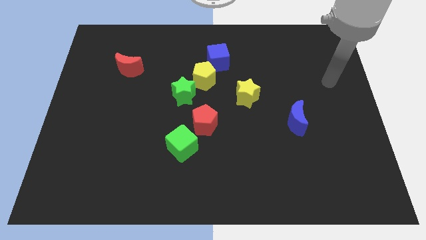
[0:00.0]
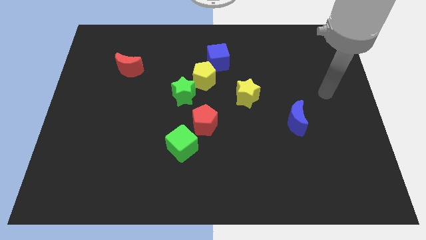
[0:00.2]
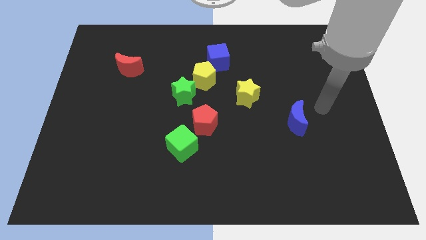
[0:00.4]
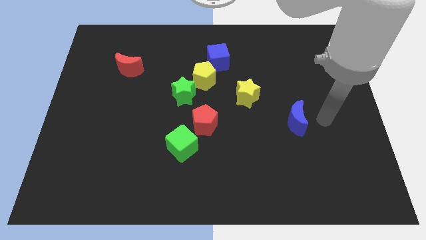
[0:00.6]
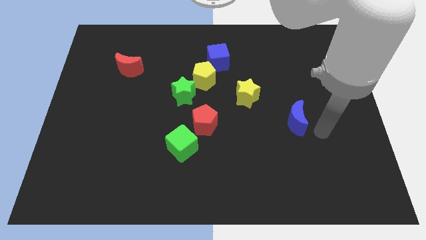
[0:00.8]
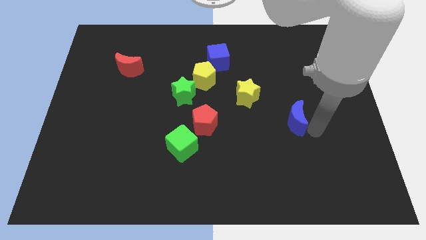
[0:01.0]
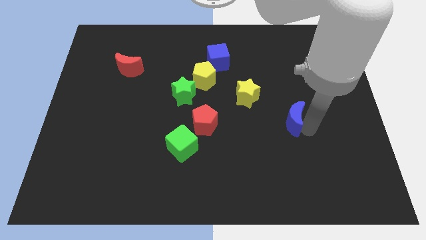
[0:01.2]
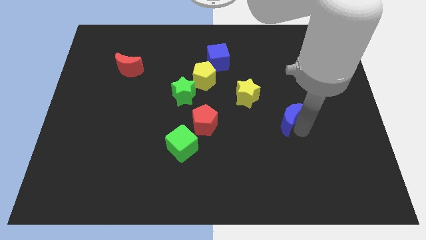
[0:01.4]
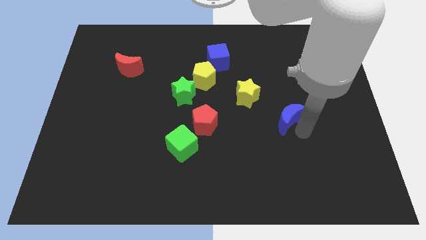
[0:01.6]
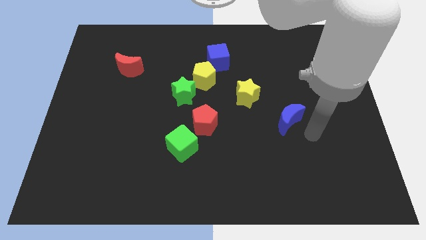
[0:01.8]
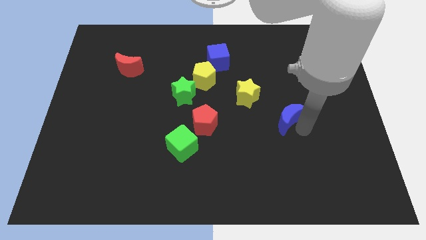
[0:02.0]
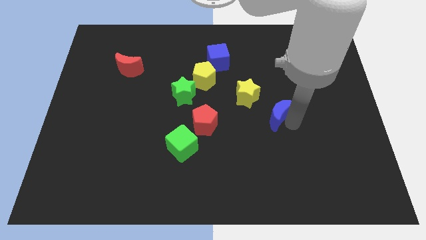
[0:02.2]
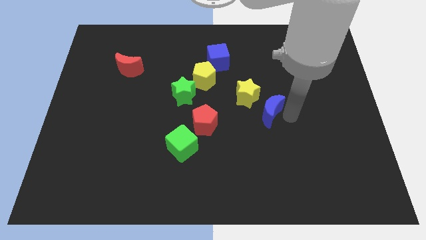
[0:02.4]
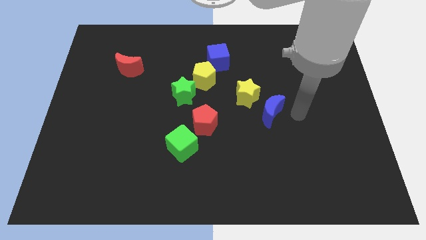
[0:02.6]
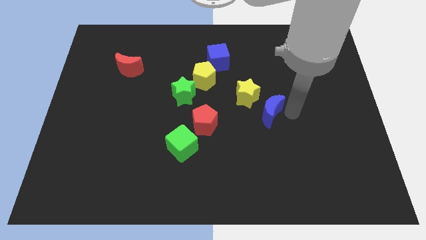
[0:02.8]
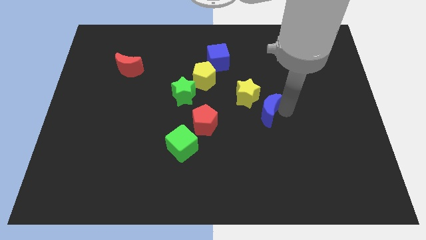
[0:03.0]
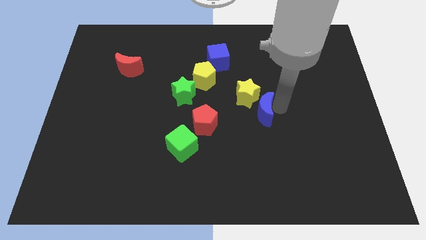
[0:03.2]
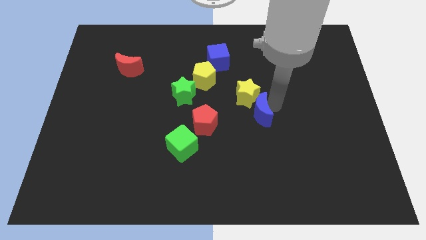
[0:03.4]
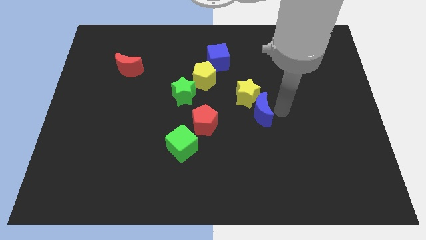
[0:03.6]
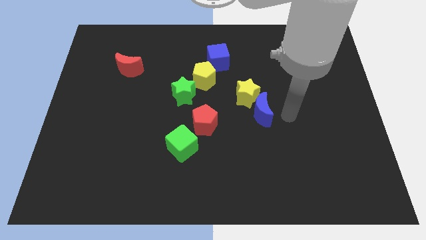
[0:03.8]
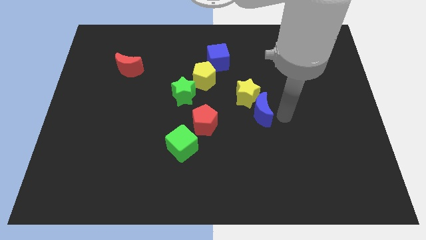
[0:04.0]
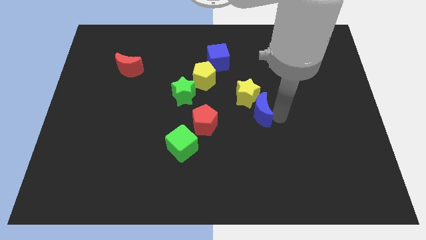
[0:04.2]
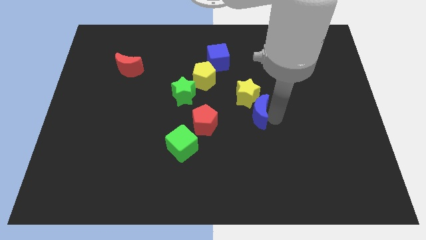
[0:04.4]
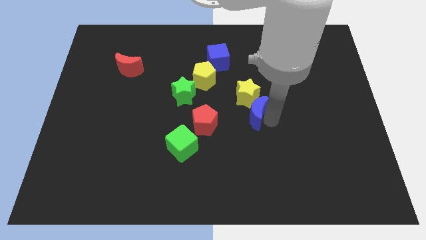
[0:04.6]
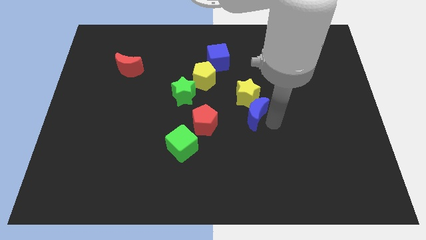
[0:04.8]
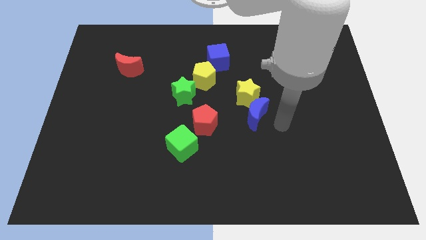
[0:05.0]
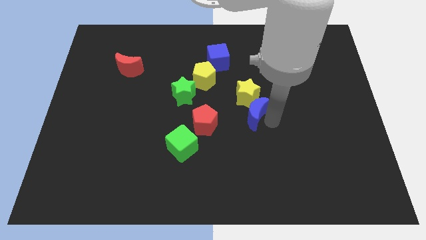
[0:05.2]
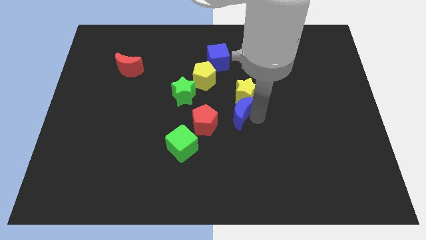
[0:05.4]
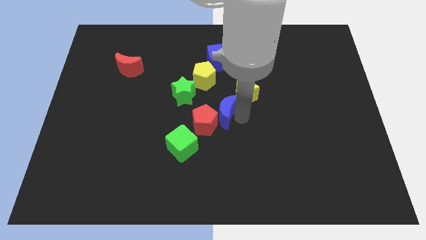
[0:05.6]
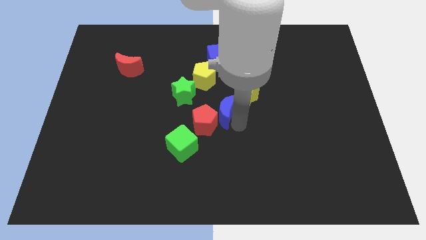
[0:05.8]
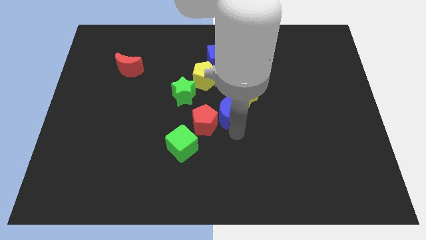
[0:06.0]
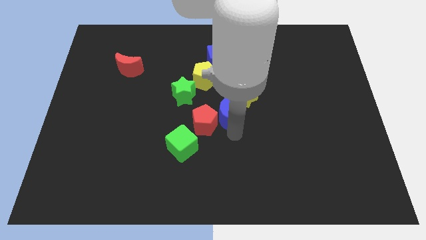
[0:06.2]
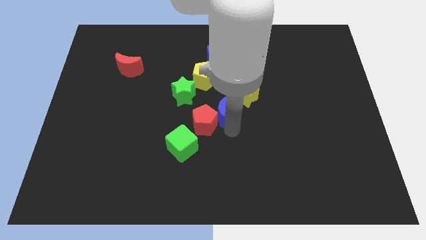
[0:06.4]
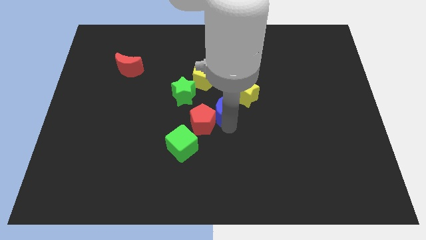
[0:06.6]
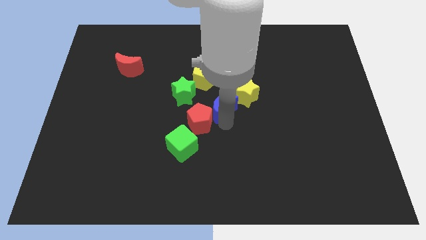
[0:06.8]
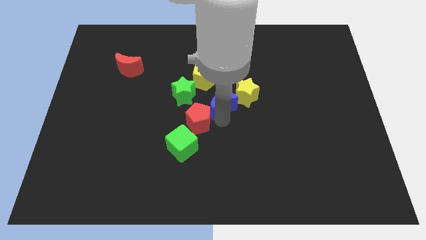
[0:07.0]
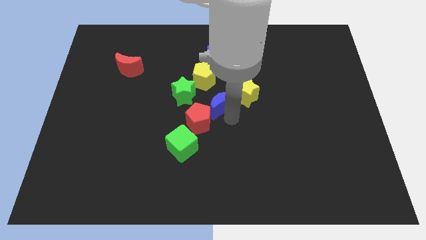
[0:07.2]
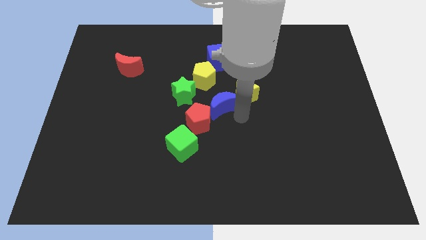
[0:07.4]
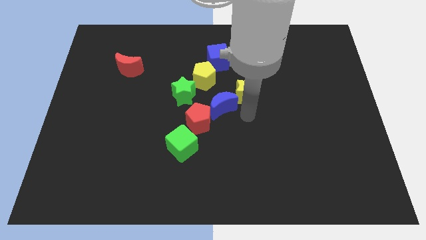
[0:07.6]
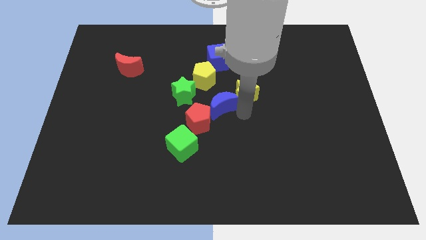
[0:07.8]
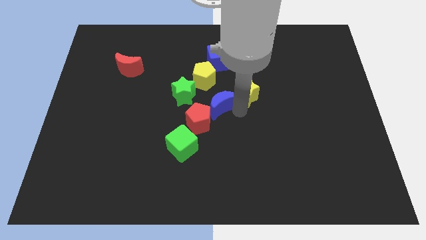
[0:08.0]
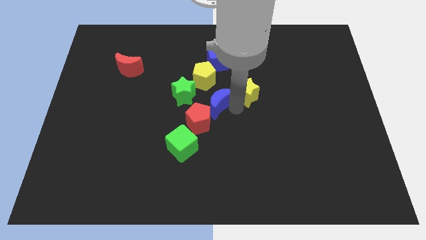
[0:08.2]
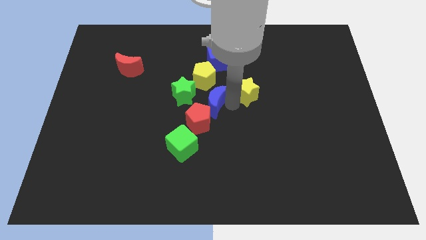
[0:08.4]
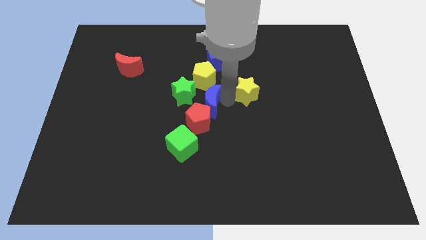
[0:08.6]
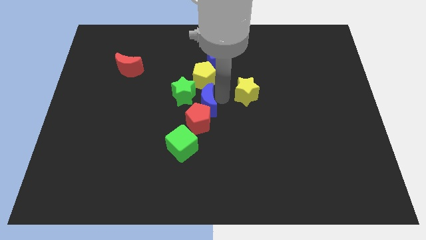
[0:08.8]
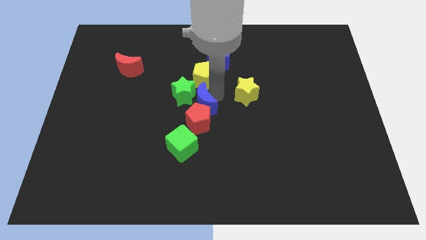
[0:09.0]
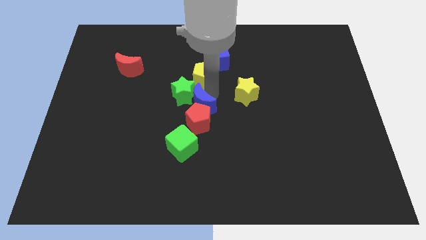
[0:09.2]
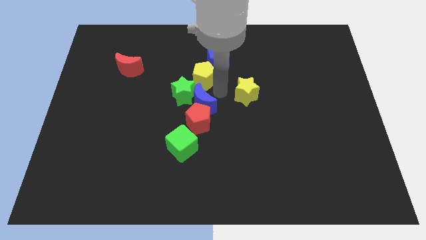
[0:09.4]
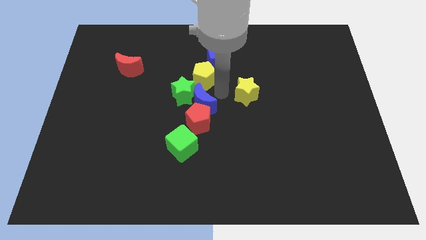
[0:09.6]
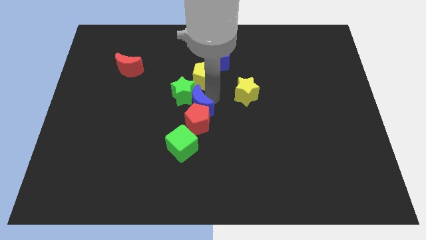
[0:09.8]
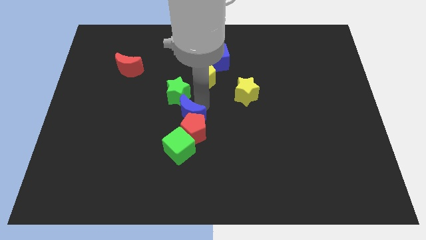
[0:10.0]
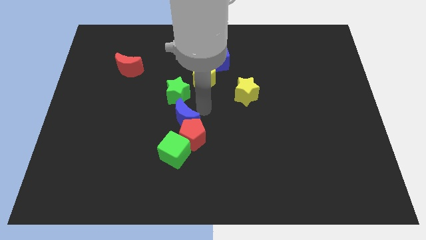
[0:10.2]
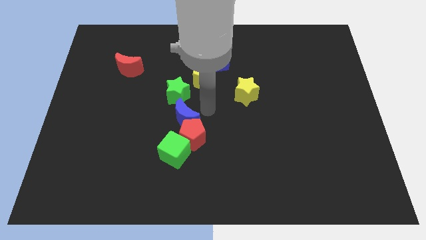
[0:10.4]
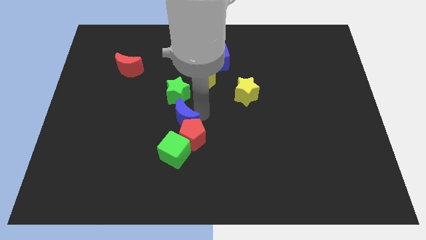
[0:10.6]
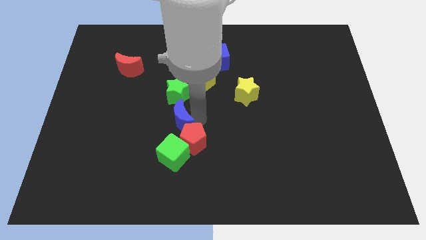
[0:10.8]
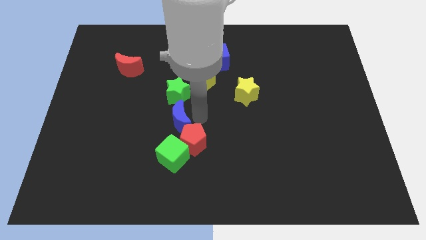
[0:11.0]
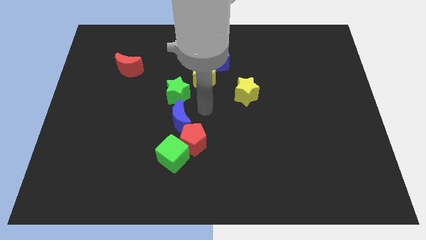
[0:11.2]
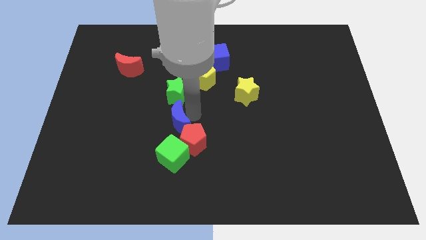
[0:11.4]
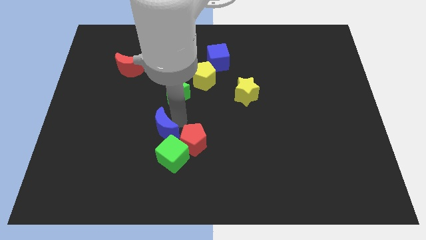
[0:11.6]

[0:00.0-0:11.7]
put the blue moon diagonally up and to the left of the green cube

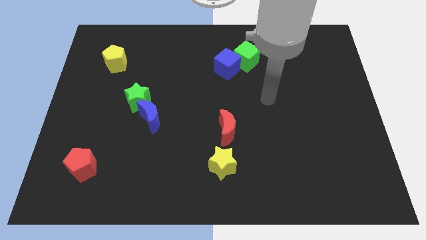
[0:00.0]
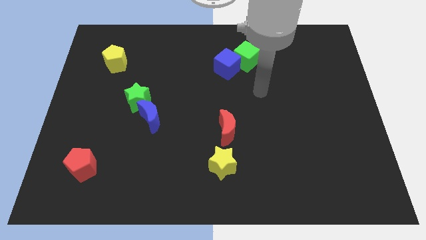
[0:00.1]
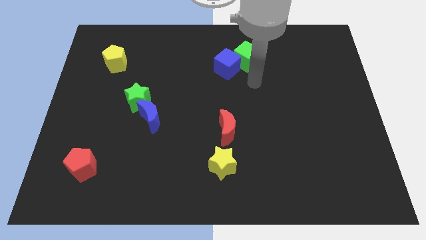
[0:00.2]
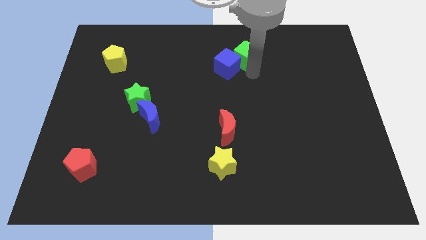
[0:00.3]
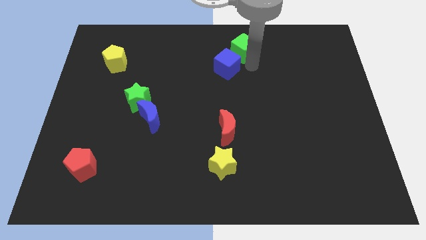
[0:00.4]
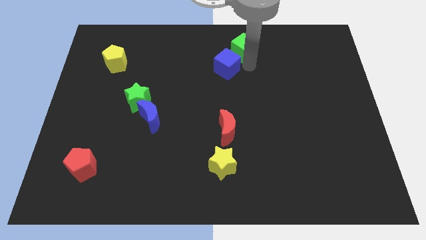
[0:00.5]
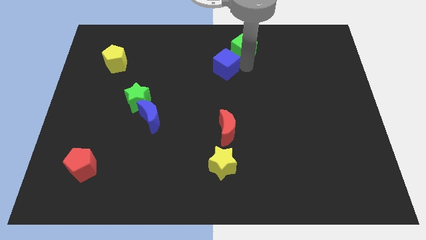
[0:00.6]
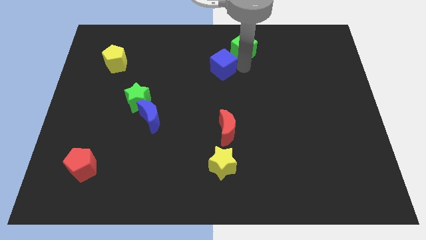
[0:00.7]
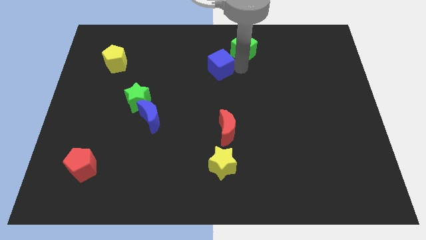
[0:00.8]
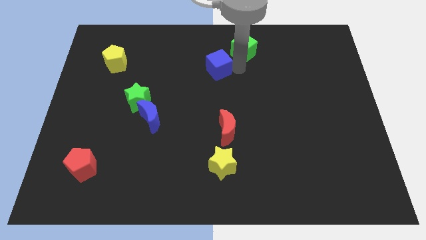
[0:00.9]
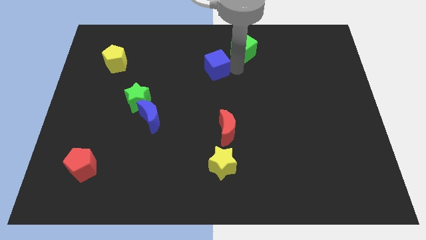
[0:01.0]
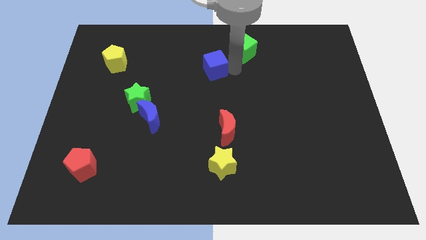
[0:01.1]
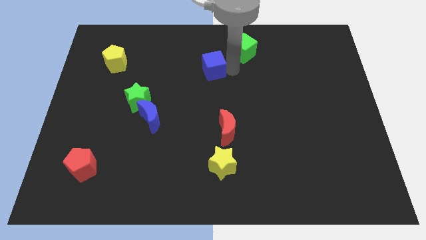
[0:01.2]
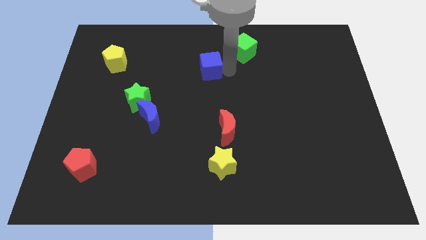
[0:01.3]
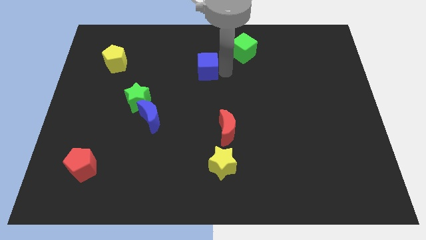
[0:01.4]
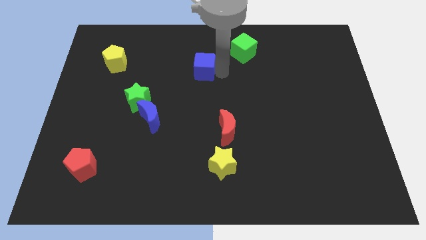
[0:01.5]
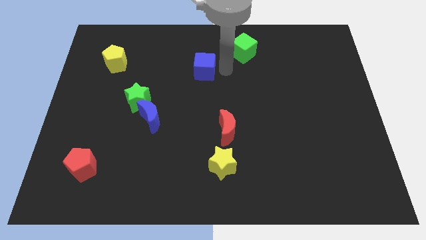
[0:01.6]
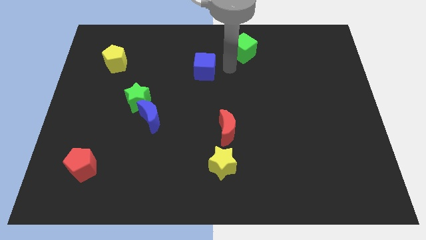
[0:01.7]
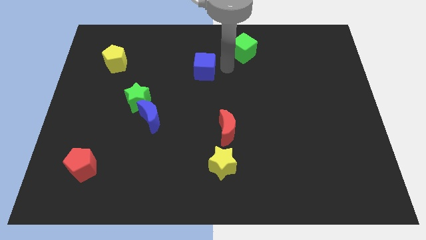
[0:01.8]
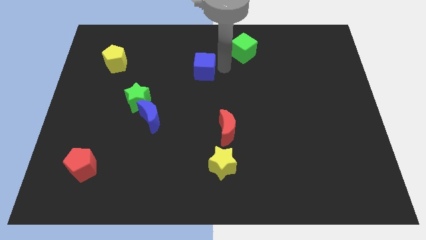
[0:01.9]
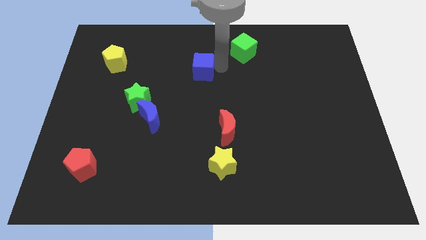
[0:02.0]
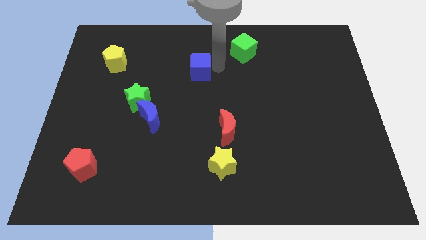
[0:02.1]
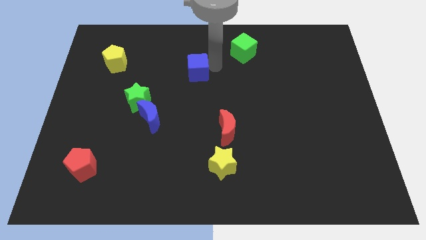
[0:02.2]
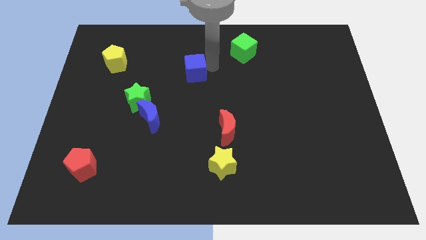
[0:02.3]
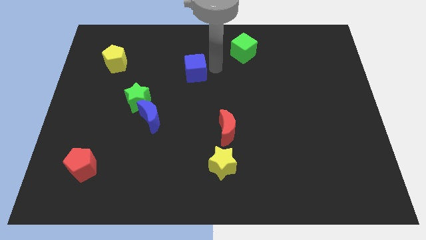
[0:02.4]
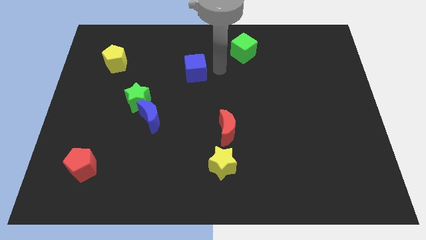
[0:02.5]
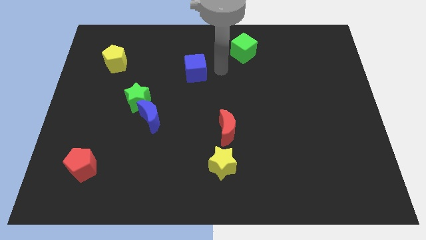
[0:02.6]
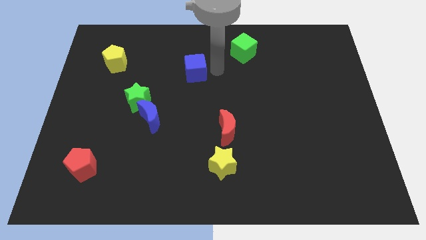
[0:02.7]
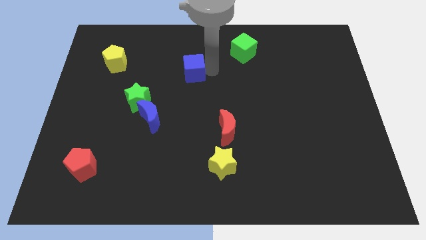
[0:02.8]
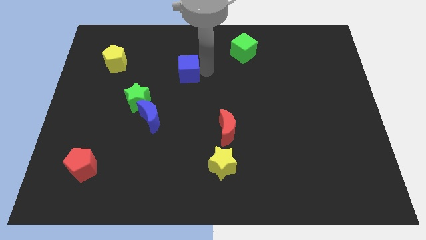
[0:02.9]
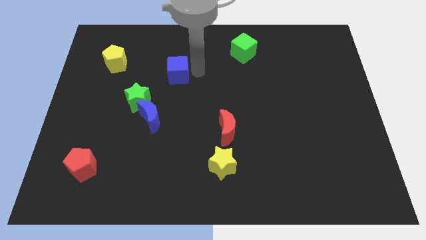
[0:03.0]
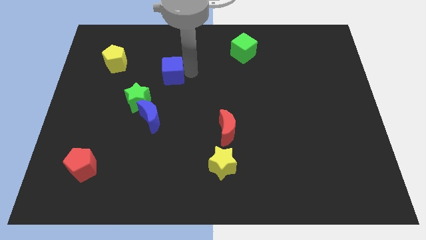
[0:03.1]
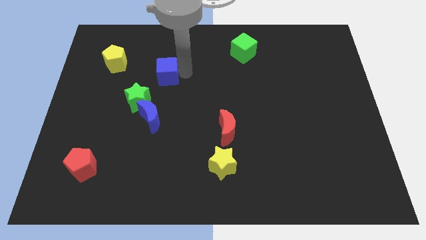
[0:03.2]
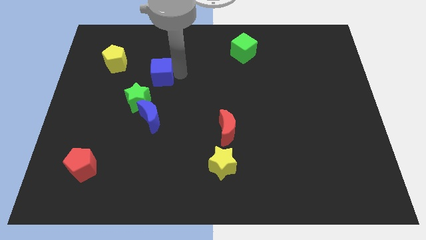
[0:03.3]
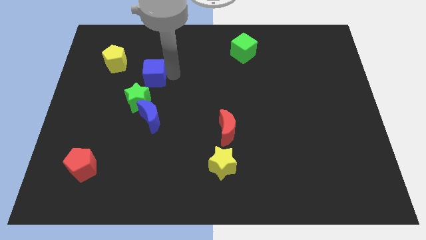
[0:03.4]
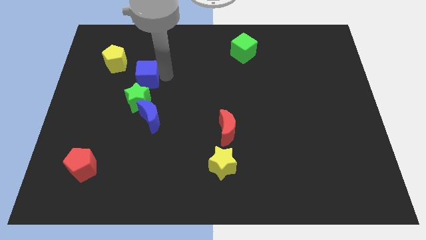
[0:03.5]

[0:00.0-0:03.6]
slide the blue cube to the bottom right of the yellow pentagon
